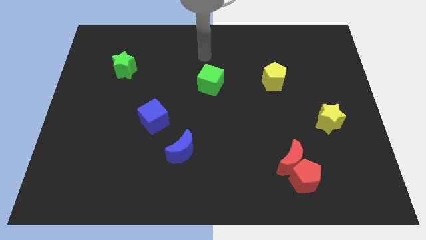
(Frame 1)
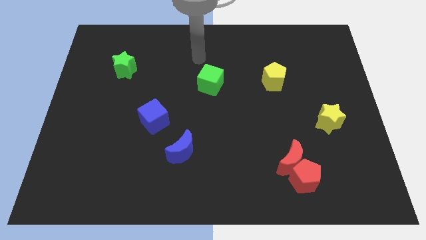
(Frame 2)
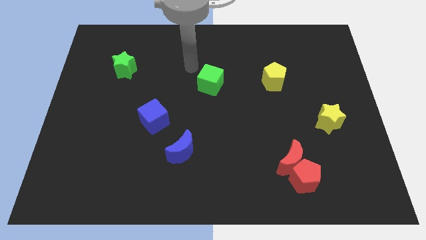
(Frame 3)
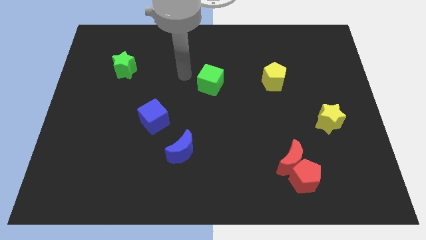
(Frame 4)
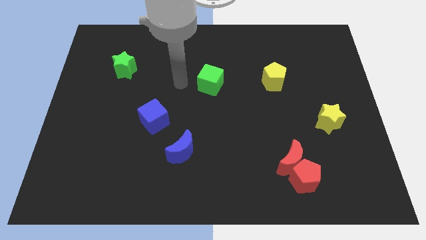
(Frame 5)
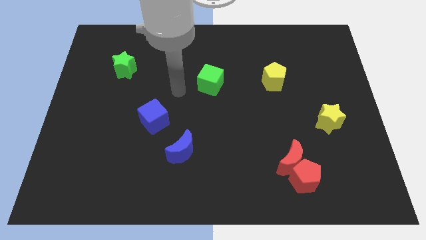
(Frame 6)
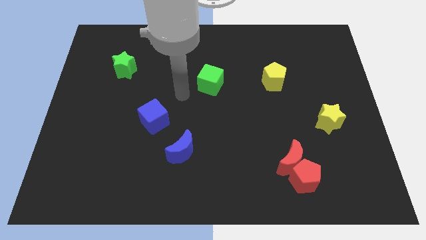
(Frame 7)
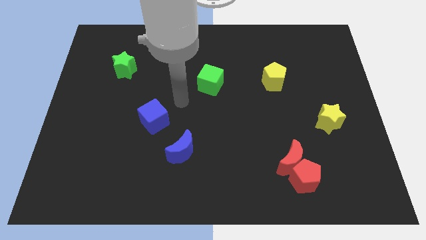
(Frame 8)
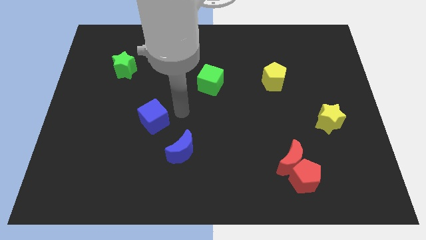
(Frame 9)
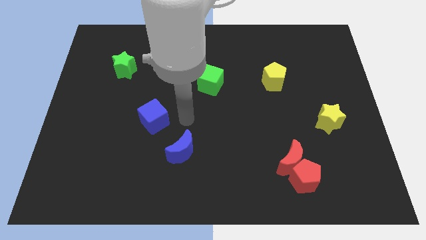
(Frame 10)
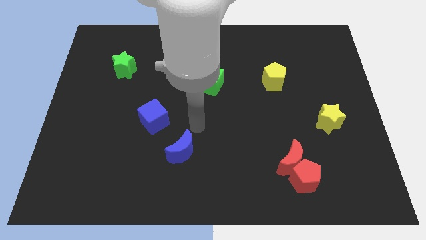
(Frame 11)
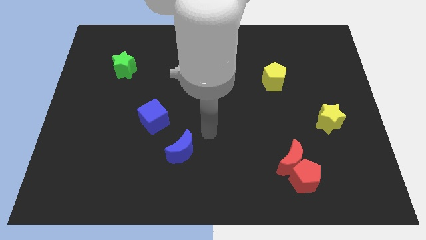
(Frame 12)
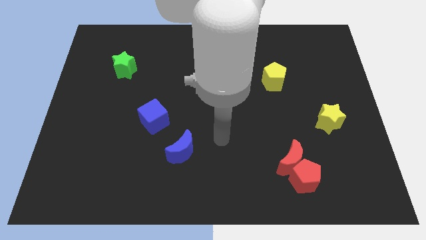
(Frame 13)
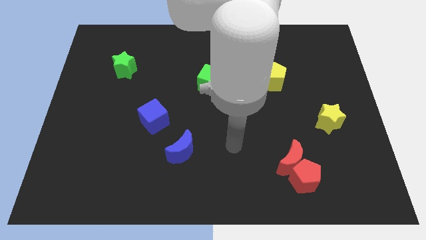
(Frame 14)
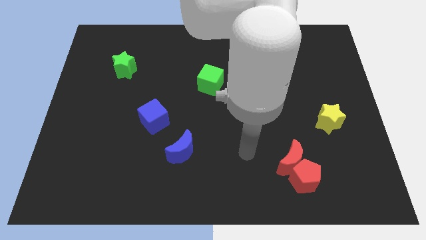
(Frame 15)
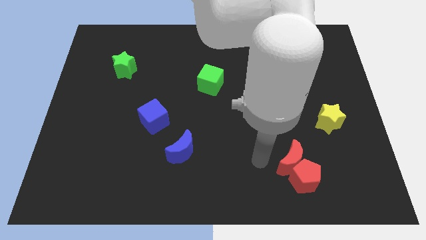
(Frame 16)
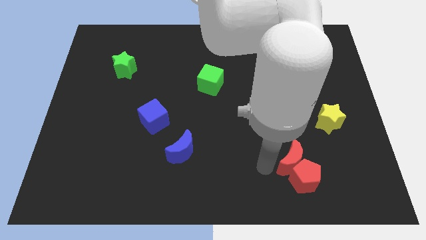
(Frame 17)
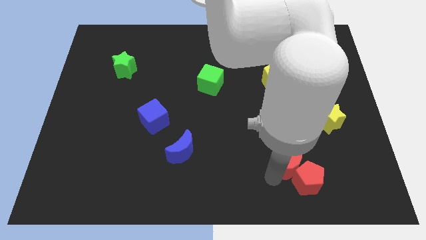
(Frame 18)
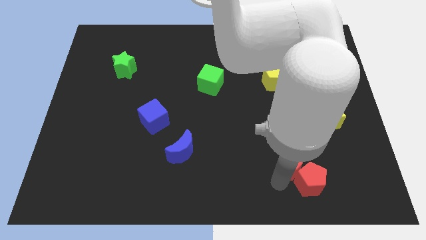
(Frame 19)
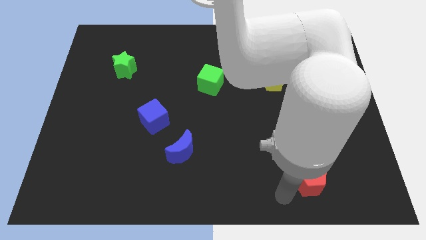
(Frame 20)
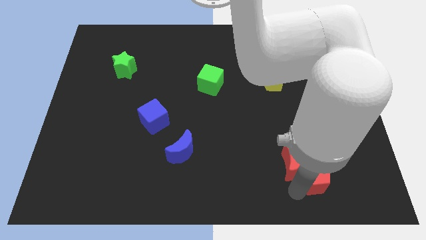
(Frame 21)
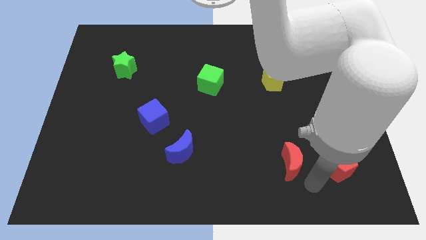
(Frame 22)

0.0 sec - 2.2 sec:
pull the red moon apart from the red pentagon

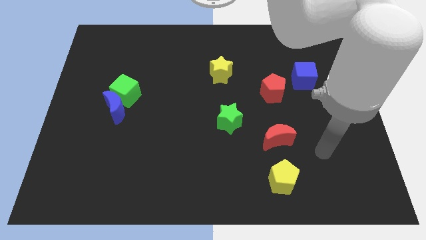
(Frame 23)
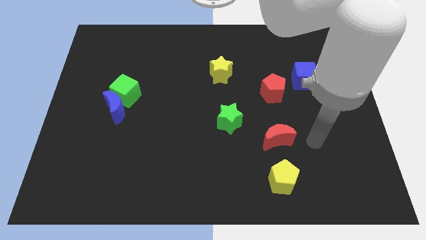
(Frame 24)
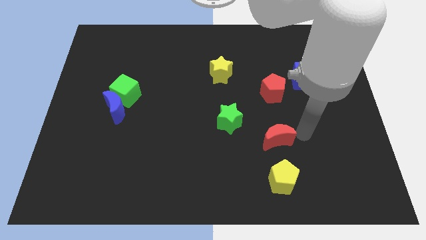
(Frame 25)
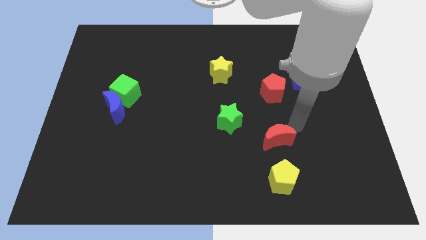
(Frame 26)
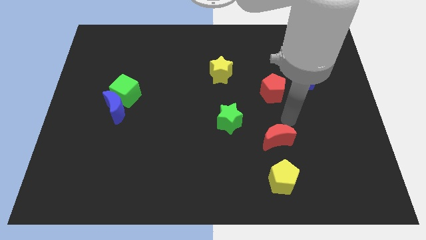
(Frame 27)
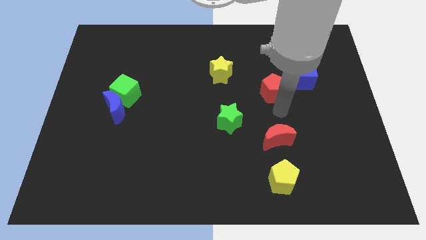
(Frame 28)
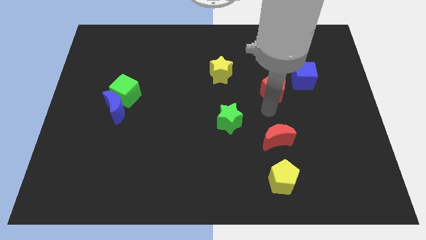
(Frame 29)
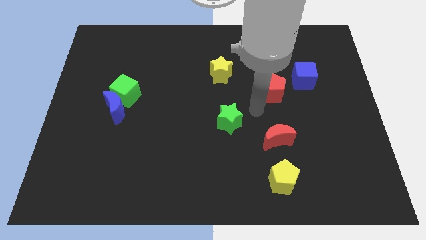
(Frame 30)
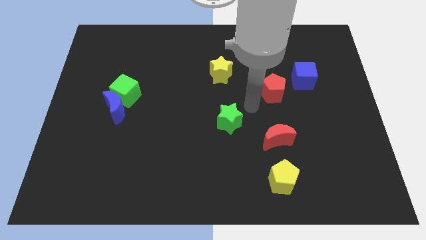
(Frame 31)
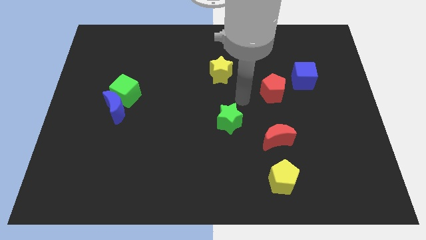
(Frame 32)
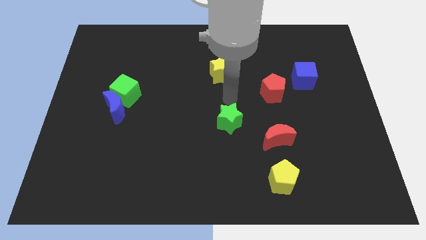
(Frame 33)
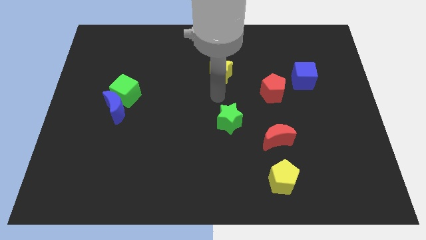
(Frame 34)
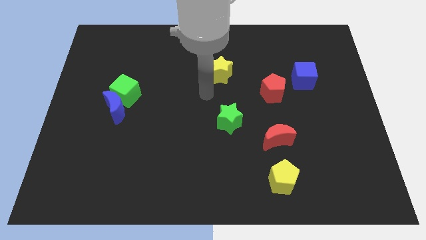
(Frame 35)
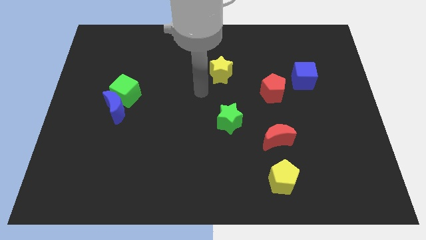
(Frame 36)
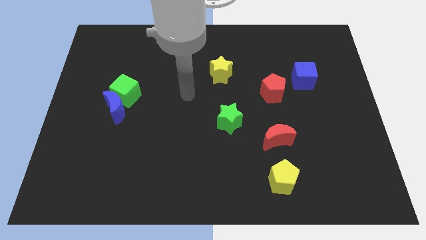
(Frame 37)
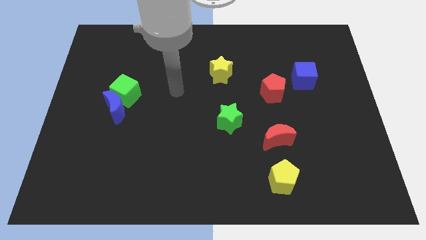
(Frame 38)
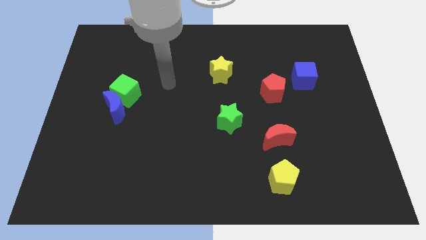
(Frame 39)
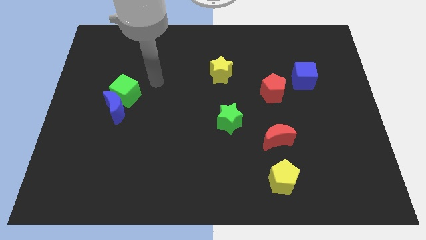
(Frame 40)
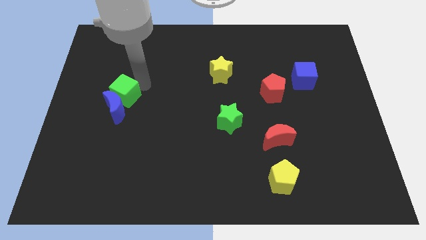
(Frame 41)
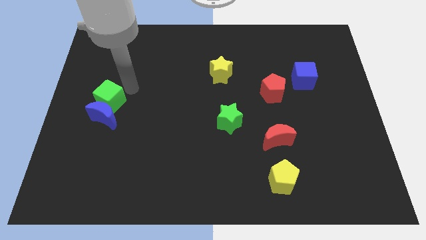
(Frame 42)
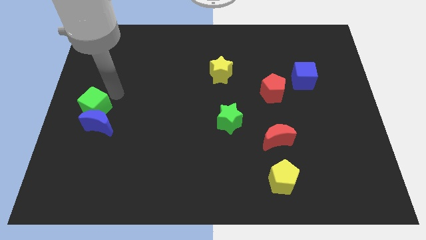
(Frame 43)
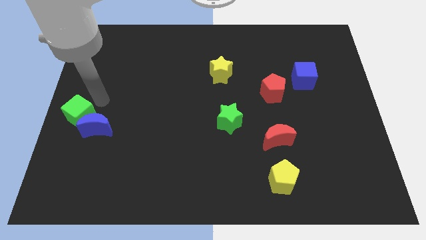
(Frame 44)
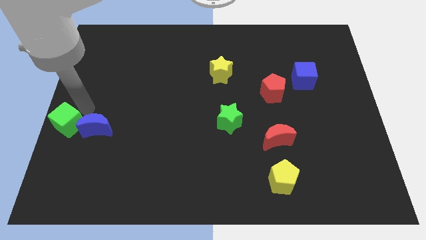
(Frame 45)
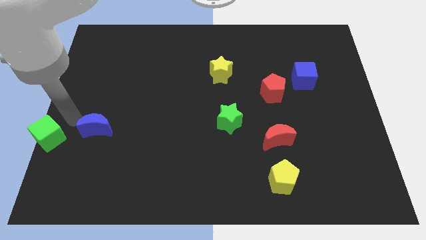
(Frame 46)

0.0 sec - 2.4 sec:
move the blue moon away from the green cube

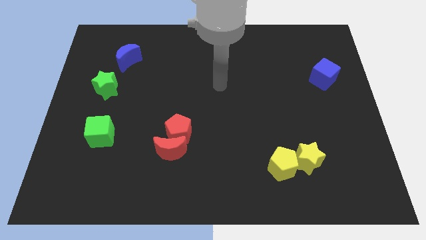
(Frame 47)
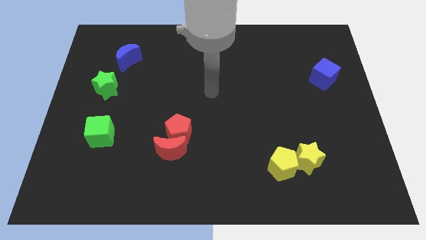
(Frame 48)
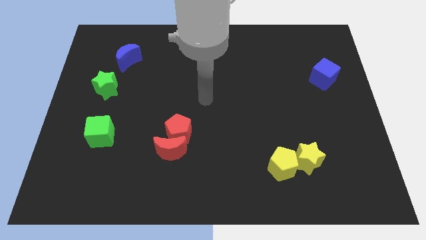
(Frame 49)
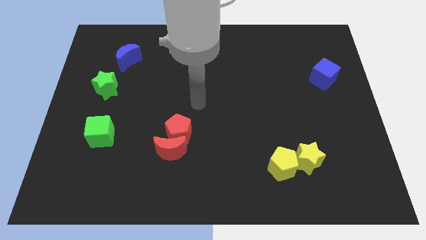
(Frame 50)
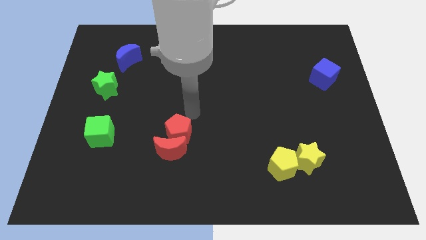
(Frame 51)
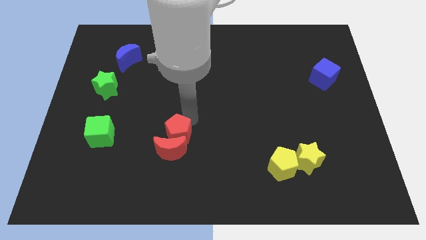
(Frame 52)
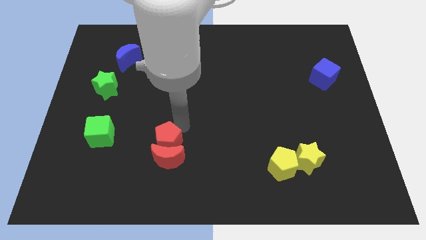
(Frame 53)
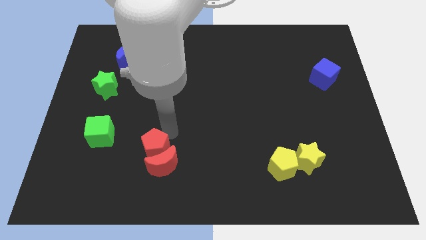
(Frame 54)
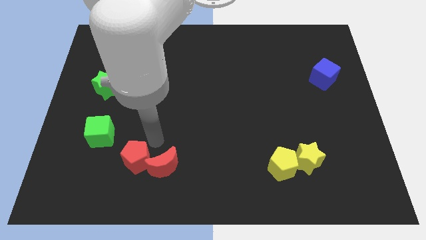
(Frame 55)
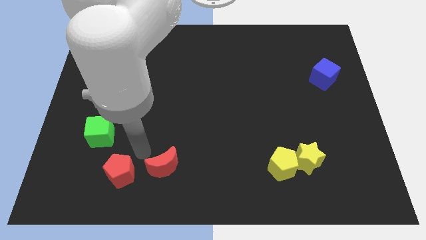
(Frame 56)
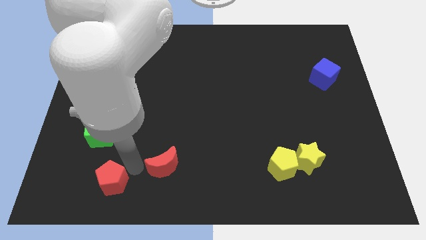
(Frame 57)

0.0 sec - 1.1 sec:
move the red moon away from the red pentagon

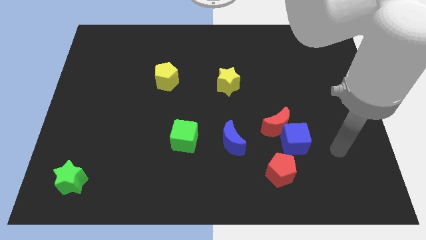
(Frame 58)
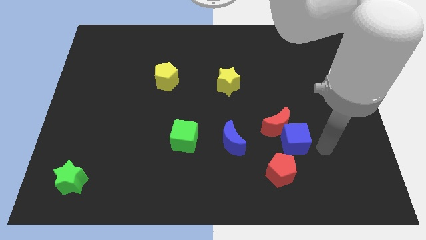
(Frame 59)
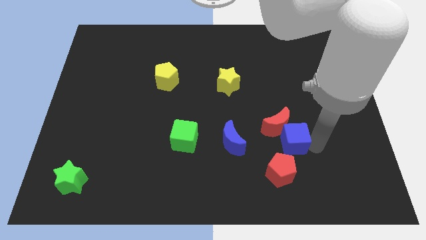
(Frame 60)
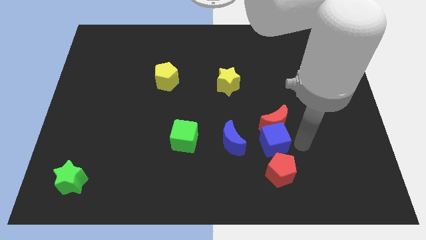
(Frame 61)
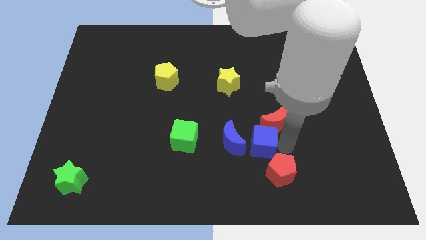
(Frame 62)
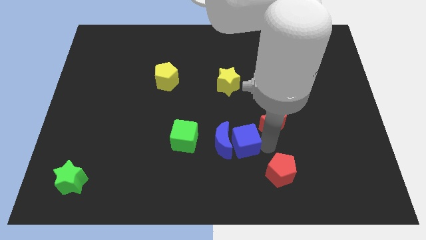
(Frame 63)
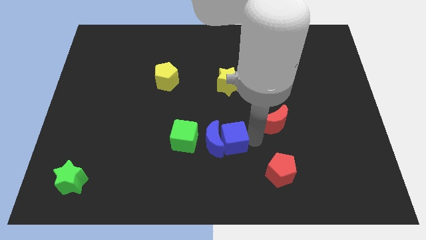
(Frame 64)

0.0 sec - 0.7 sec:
move the red moon away from the blue cube

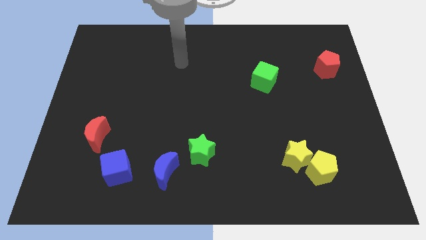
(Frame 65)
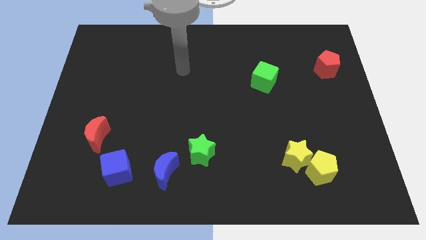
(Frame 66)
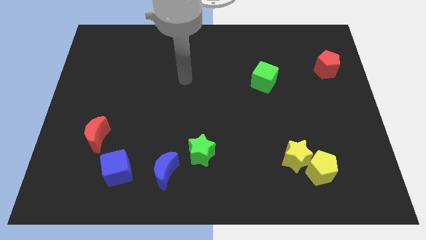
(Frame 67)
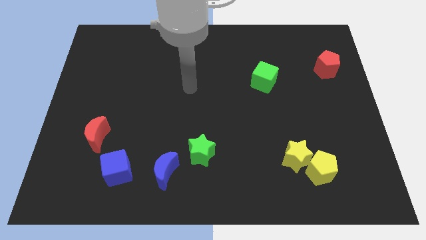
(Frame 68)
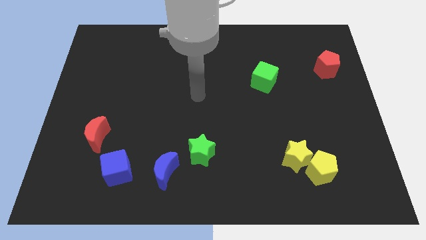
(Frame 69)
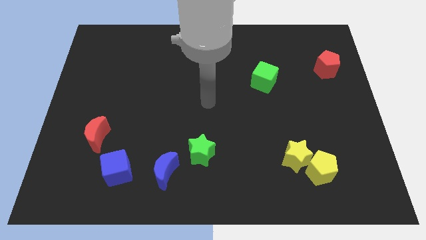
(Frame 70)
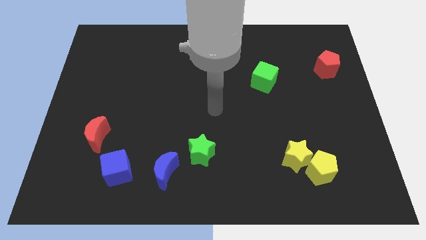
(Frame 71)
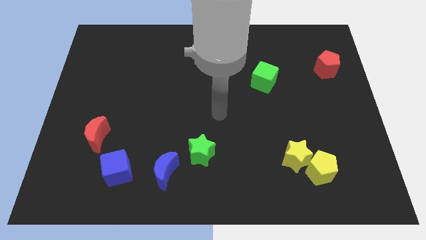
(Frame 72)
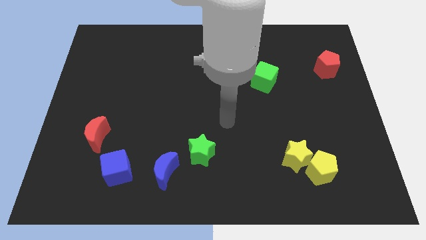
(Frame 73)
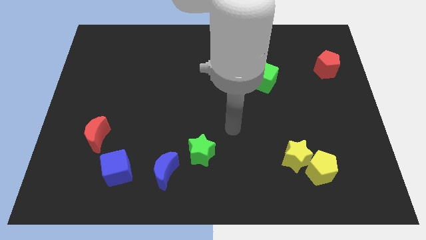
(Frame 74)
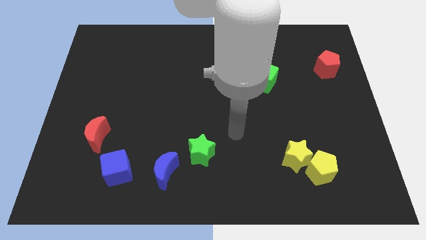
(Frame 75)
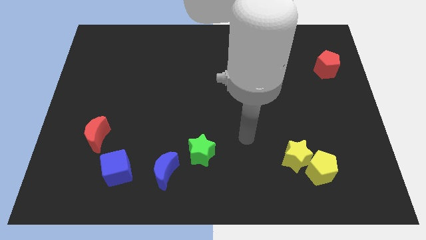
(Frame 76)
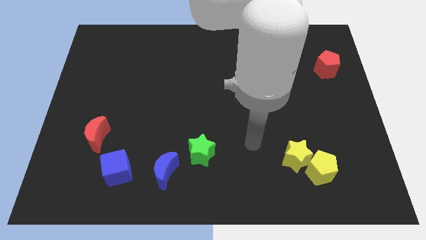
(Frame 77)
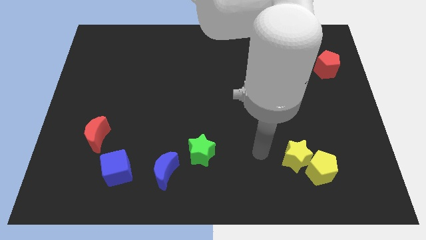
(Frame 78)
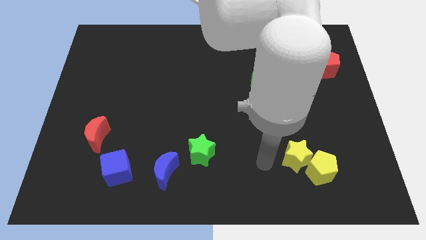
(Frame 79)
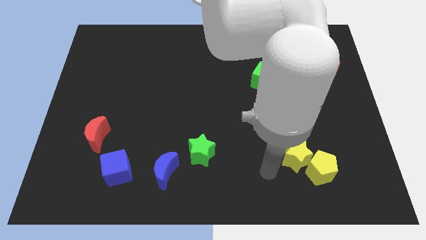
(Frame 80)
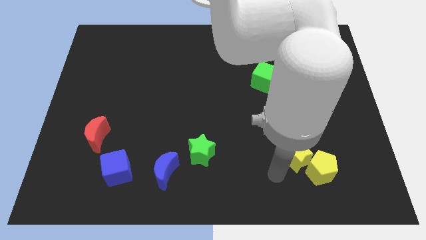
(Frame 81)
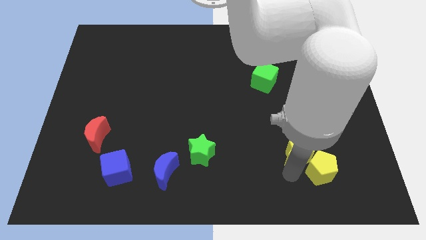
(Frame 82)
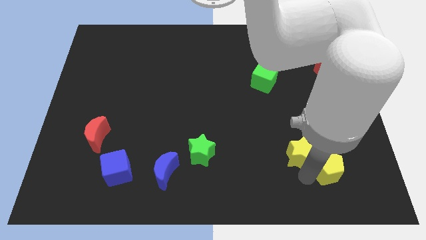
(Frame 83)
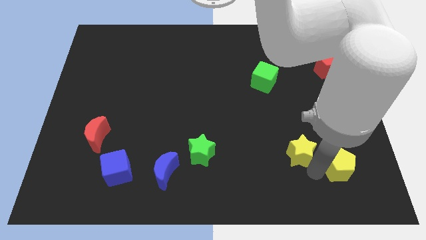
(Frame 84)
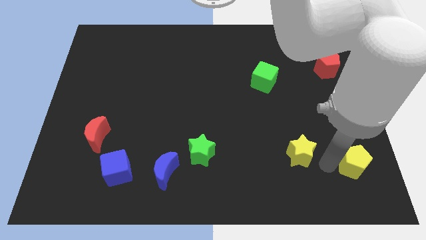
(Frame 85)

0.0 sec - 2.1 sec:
move the yellow star away from the yellow pentagon

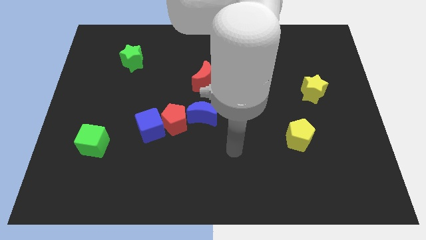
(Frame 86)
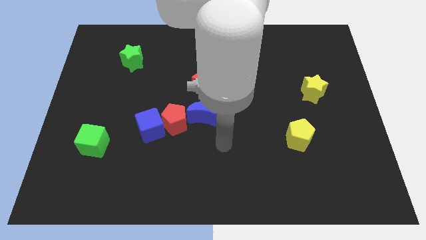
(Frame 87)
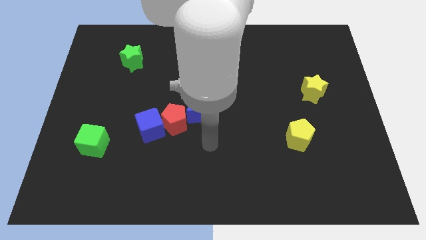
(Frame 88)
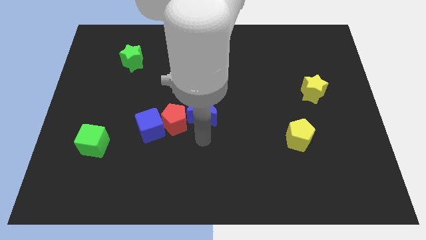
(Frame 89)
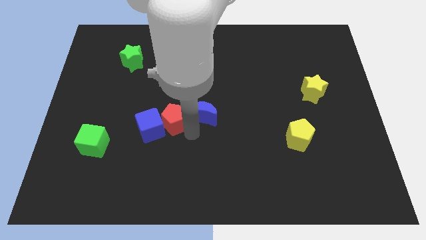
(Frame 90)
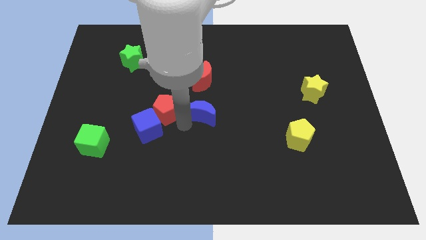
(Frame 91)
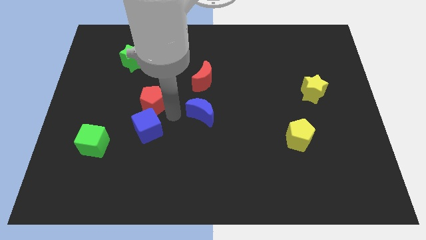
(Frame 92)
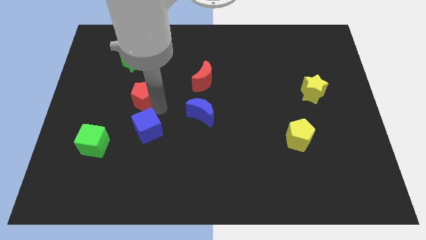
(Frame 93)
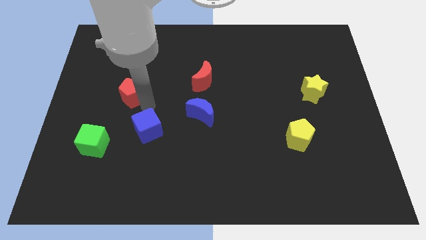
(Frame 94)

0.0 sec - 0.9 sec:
separate the blue cube from the red pentagon
